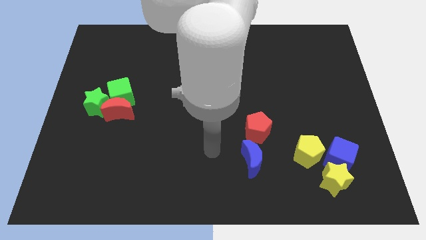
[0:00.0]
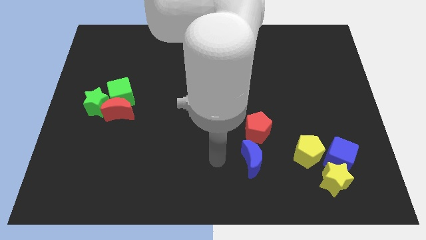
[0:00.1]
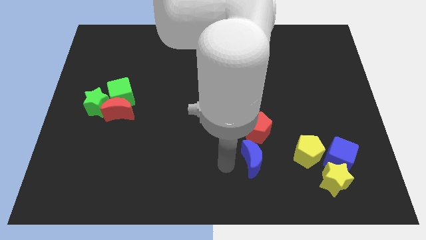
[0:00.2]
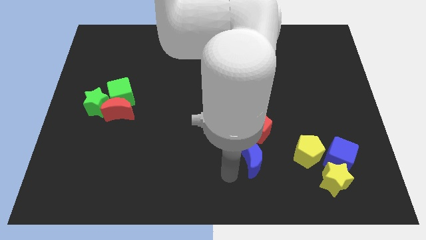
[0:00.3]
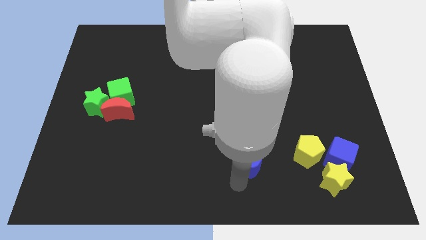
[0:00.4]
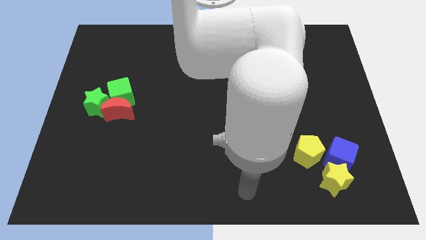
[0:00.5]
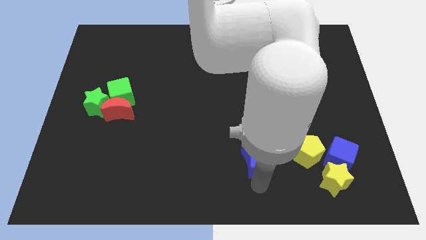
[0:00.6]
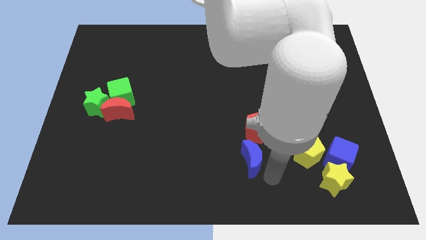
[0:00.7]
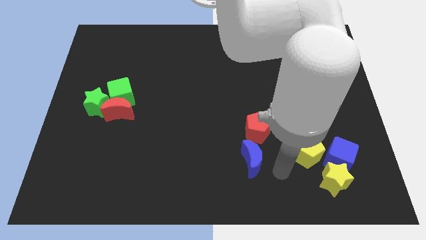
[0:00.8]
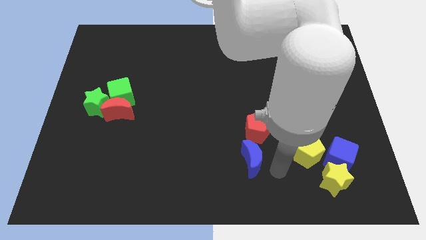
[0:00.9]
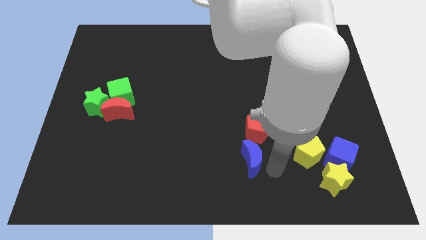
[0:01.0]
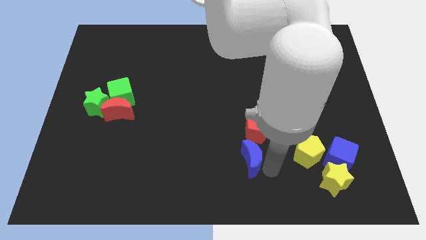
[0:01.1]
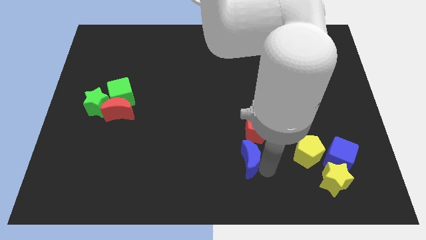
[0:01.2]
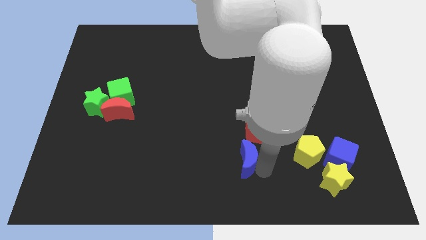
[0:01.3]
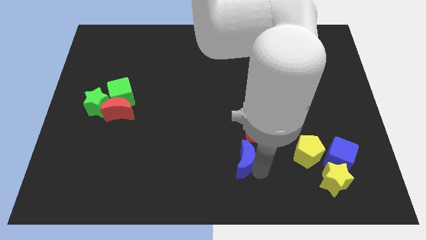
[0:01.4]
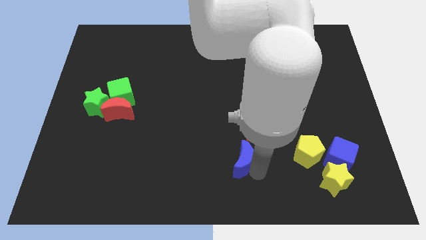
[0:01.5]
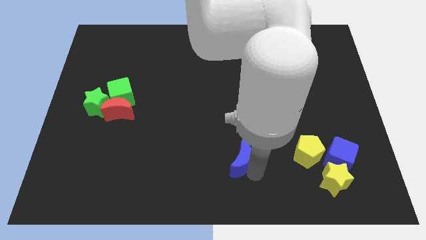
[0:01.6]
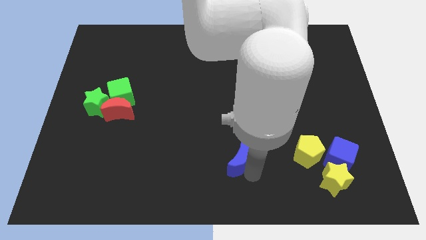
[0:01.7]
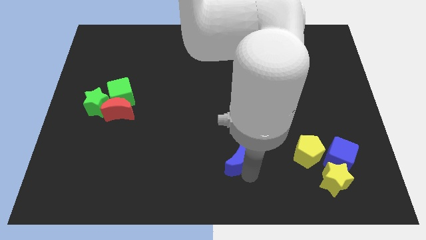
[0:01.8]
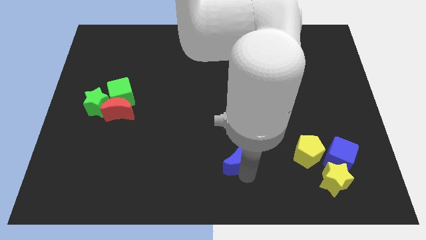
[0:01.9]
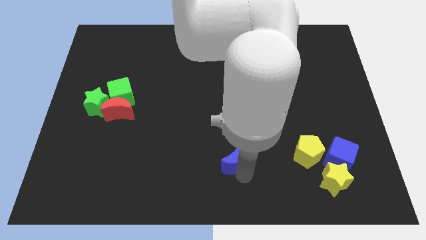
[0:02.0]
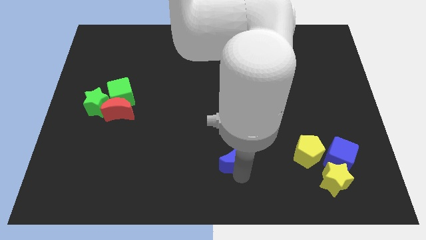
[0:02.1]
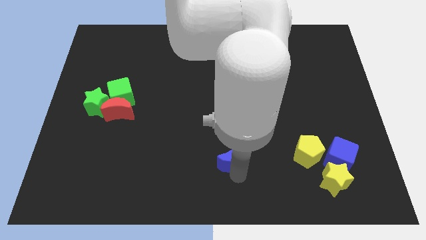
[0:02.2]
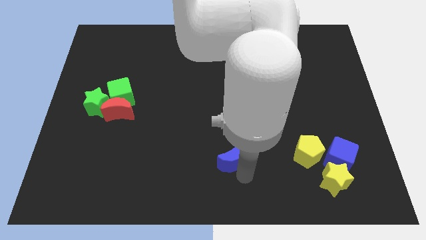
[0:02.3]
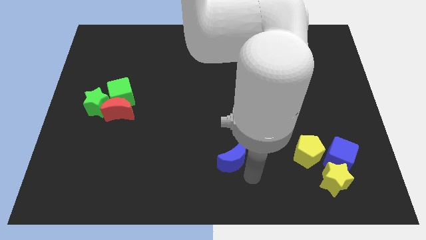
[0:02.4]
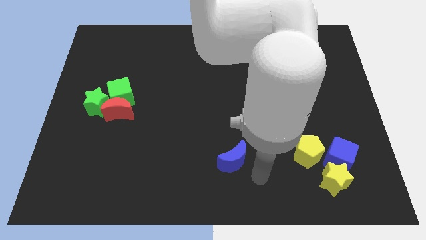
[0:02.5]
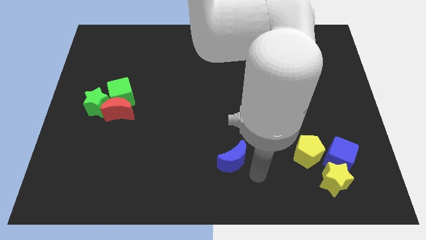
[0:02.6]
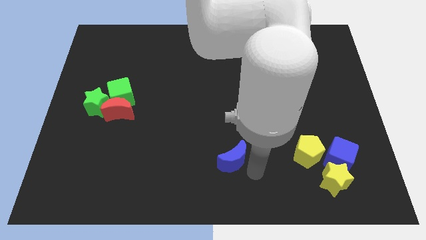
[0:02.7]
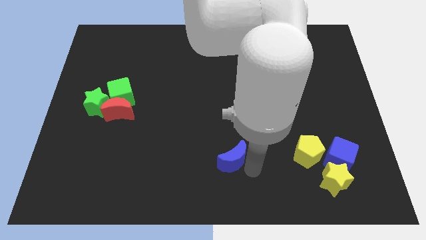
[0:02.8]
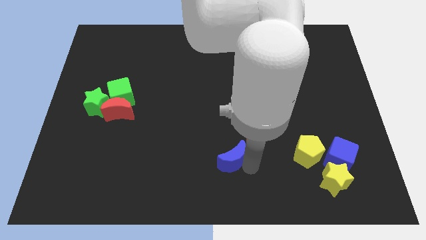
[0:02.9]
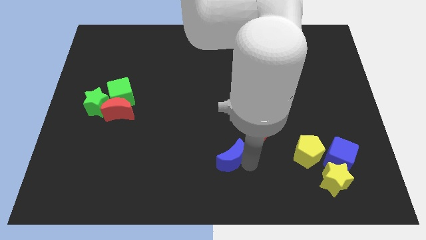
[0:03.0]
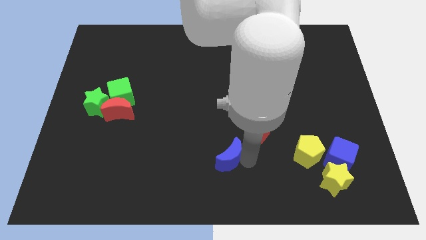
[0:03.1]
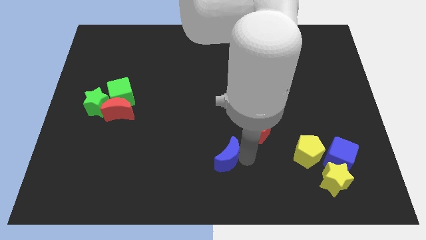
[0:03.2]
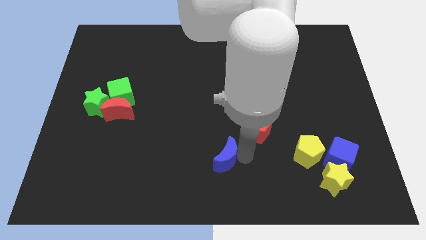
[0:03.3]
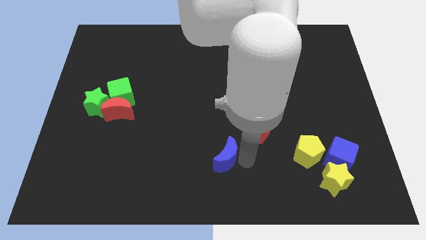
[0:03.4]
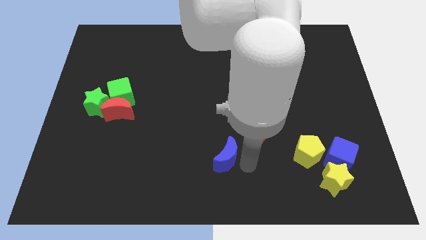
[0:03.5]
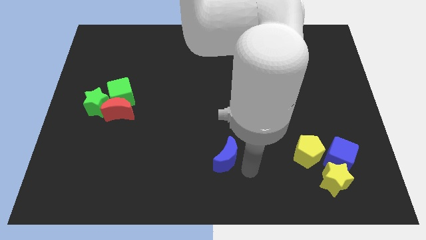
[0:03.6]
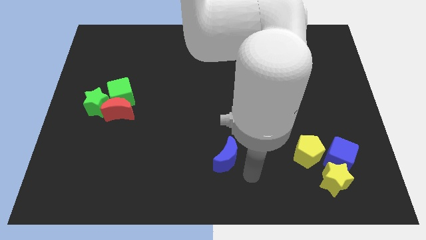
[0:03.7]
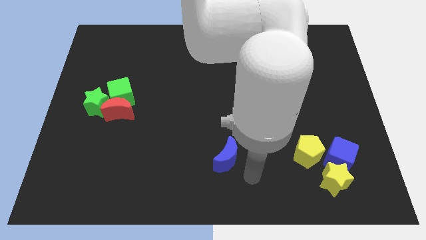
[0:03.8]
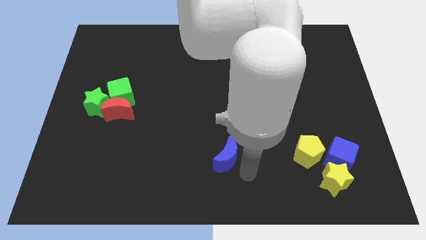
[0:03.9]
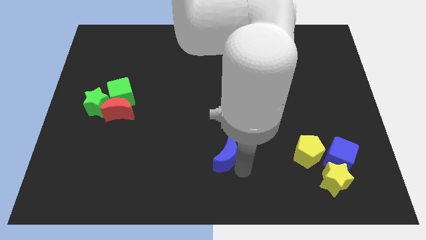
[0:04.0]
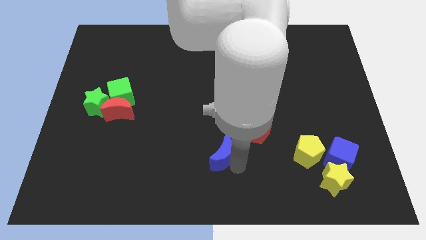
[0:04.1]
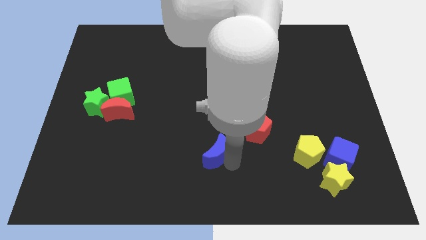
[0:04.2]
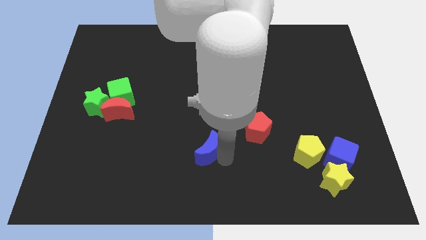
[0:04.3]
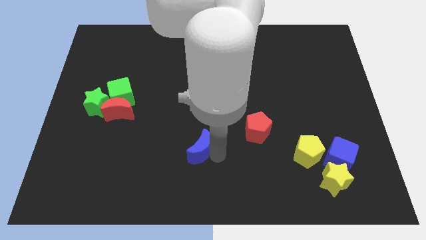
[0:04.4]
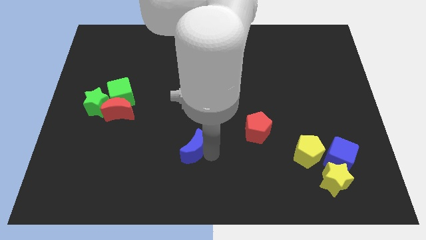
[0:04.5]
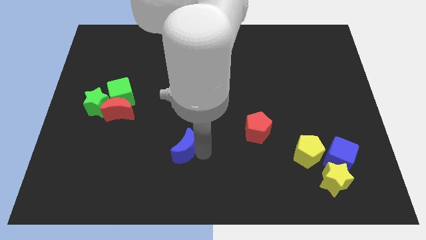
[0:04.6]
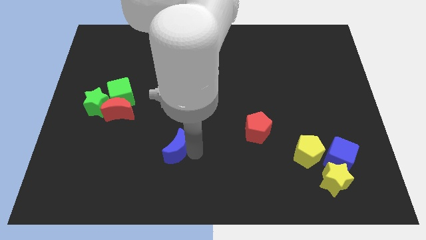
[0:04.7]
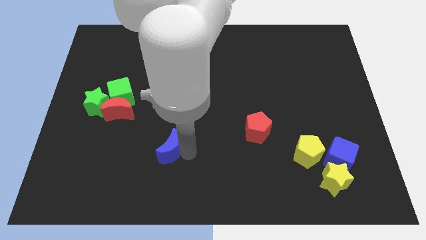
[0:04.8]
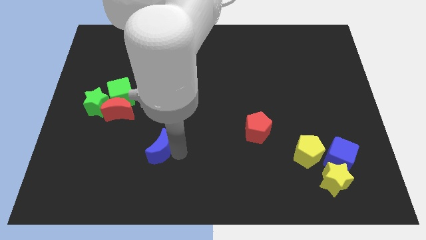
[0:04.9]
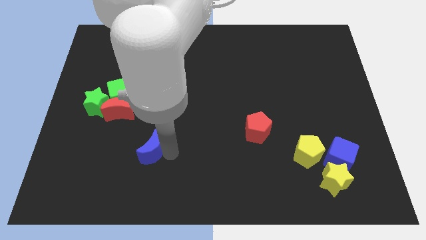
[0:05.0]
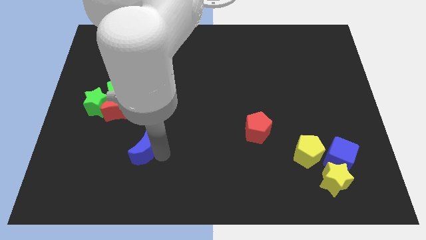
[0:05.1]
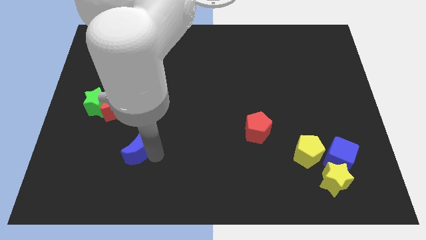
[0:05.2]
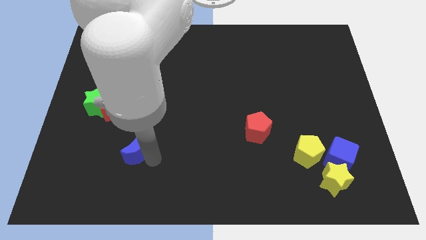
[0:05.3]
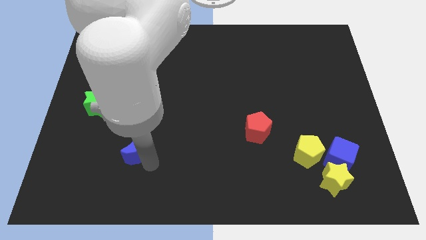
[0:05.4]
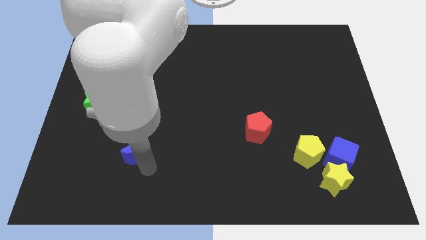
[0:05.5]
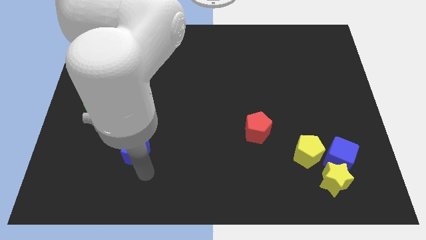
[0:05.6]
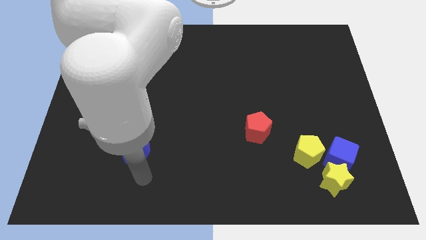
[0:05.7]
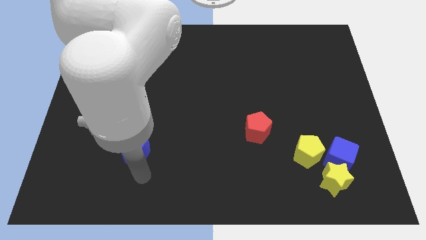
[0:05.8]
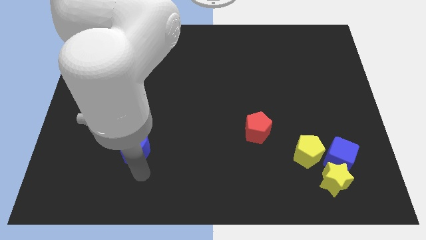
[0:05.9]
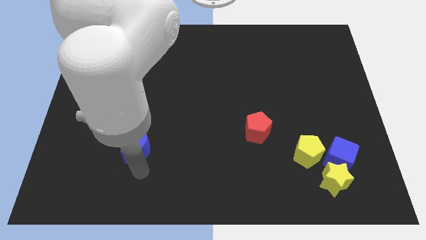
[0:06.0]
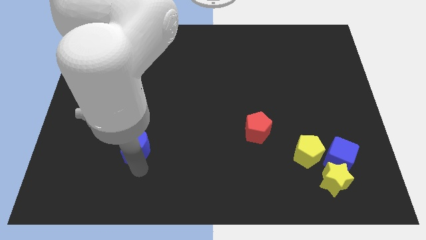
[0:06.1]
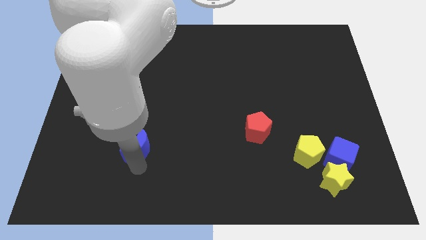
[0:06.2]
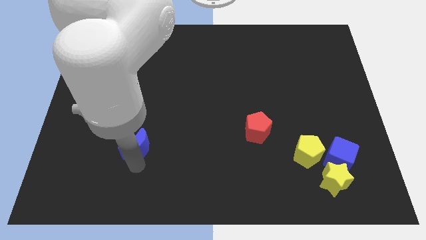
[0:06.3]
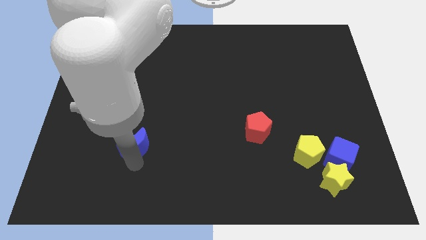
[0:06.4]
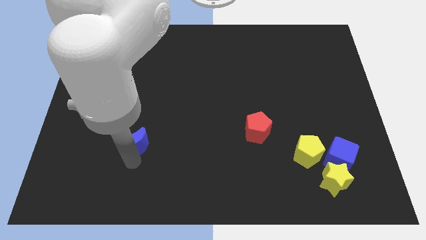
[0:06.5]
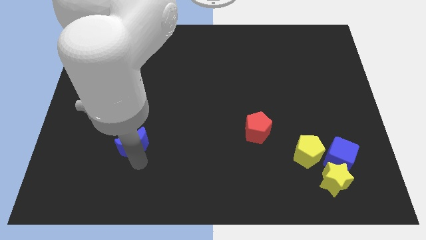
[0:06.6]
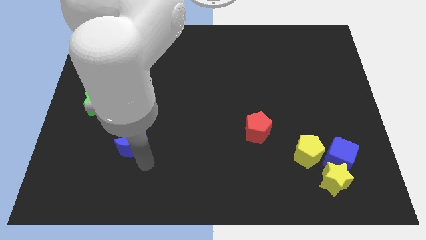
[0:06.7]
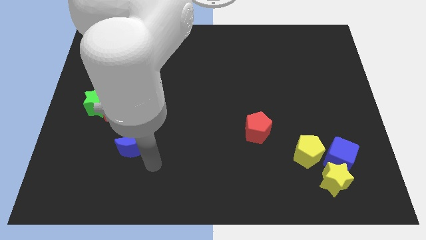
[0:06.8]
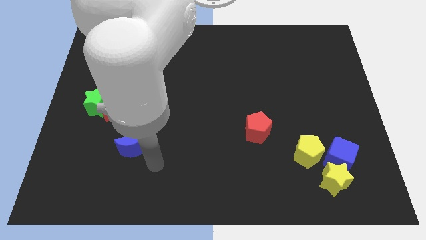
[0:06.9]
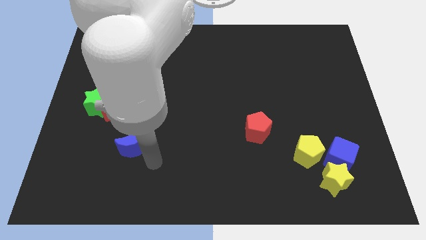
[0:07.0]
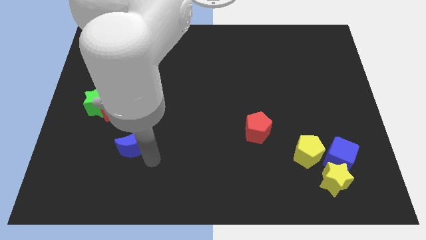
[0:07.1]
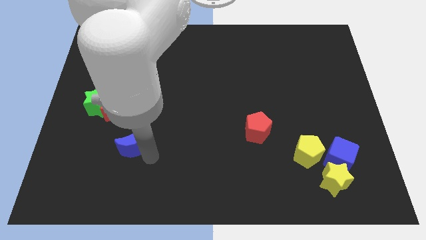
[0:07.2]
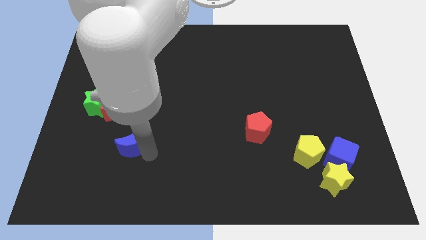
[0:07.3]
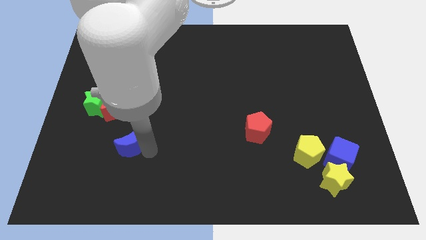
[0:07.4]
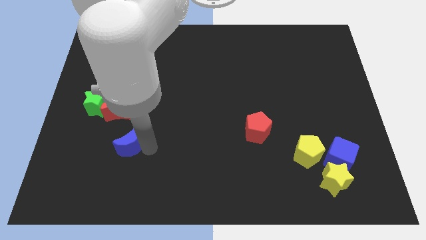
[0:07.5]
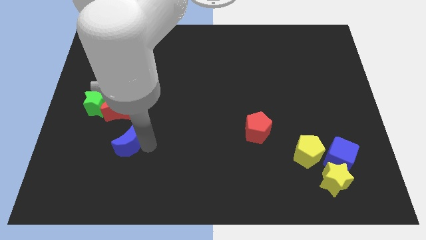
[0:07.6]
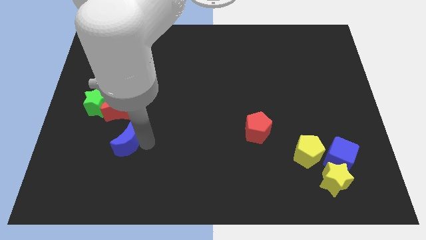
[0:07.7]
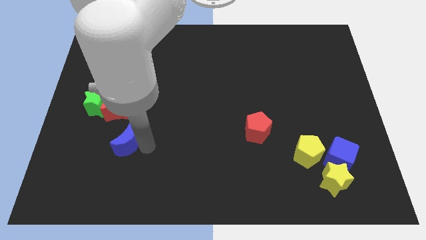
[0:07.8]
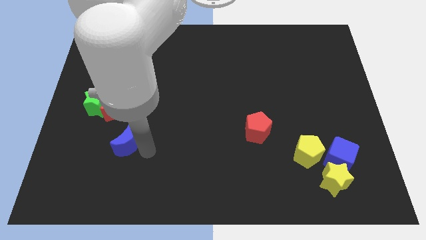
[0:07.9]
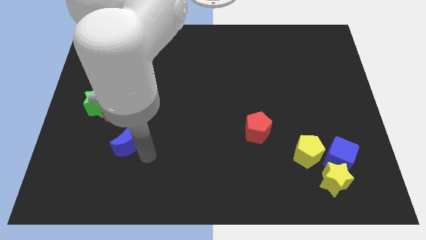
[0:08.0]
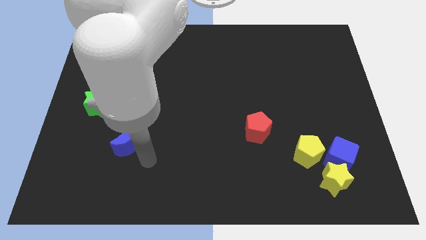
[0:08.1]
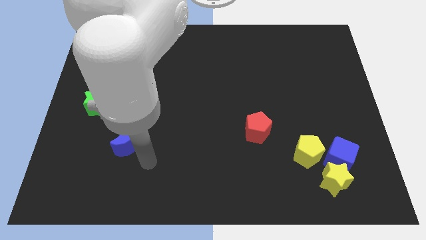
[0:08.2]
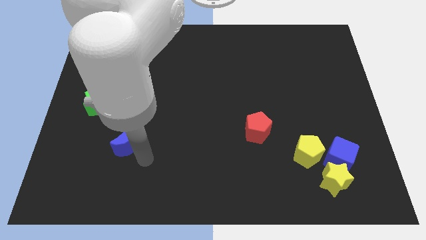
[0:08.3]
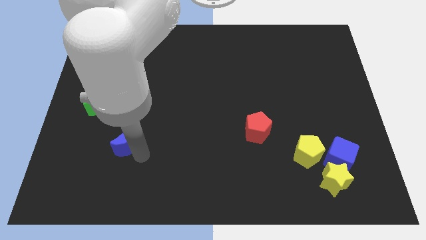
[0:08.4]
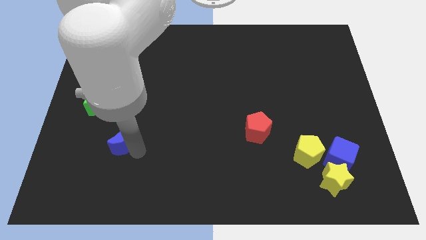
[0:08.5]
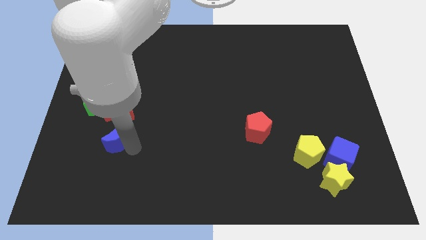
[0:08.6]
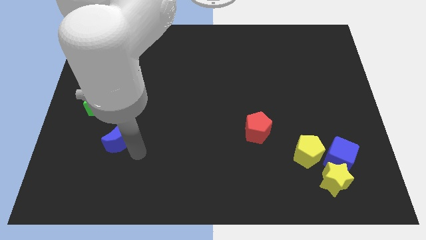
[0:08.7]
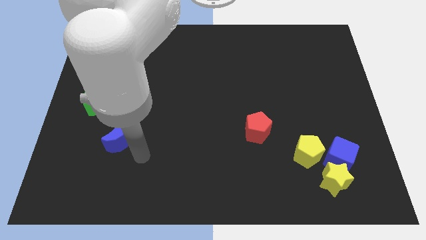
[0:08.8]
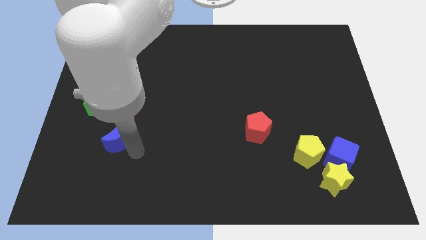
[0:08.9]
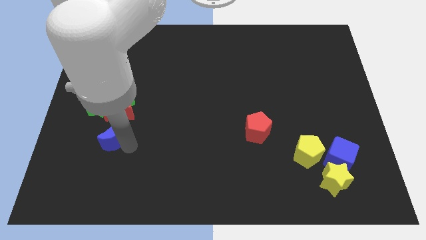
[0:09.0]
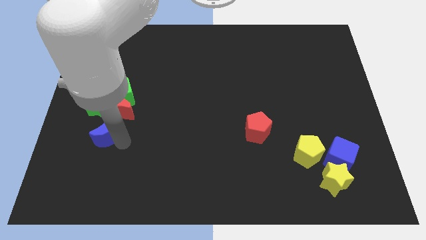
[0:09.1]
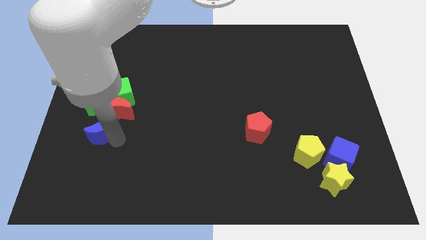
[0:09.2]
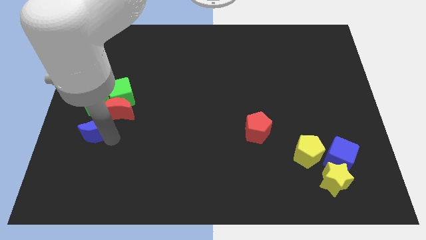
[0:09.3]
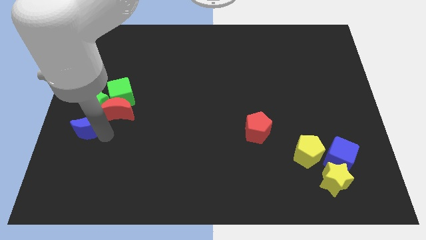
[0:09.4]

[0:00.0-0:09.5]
move the blue moon to the left side
